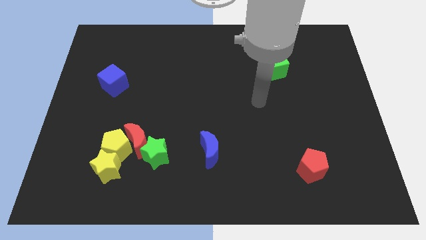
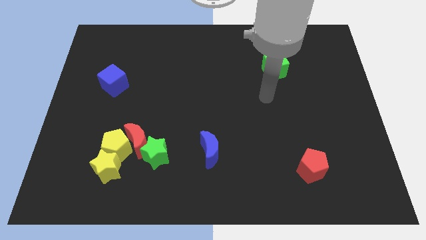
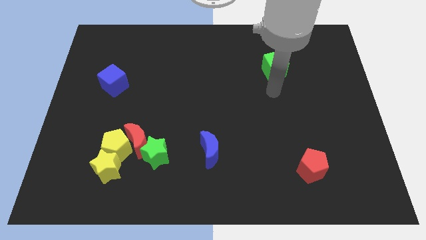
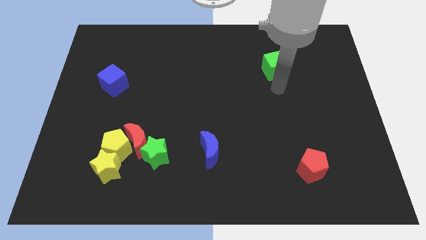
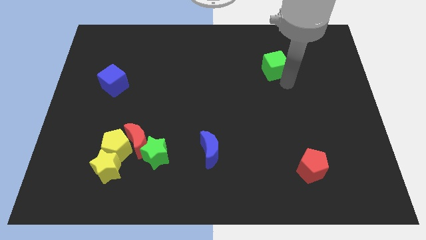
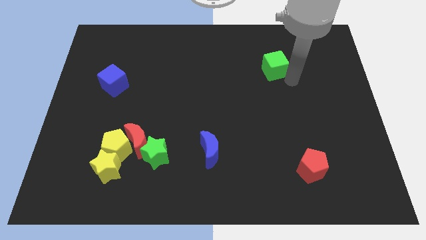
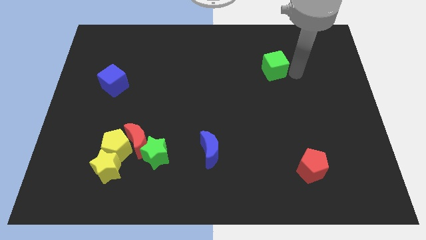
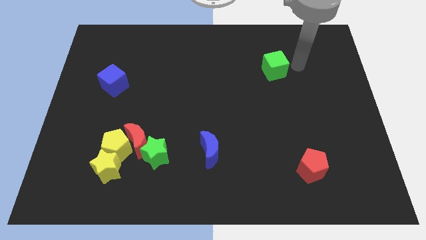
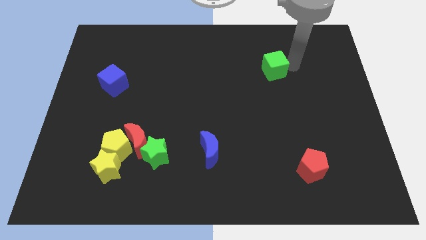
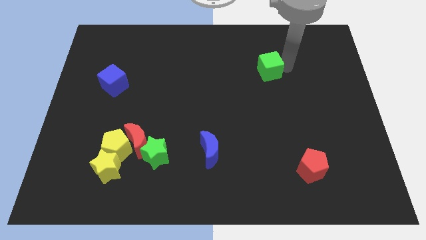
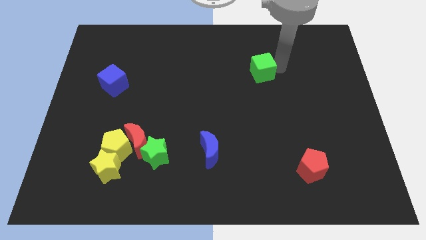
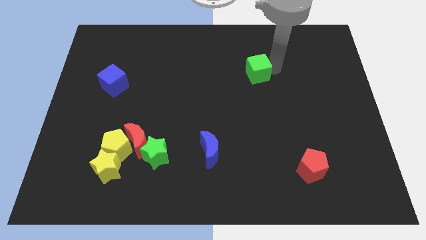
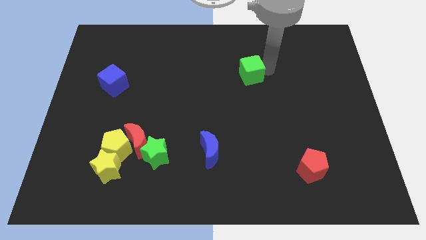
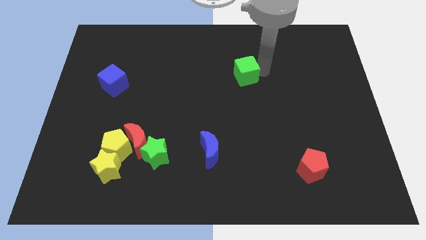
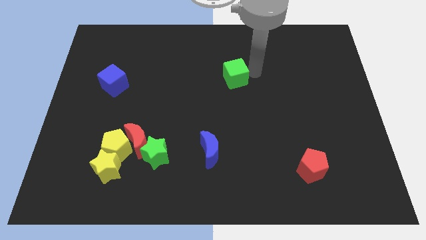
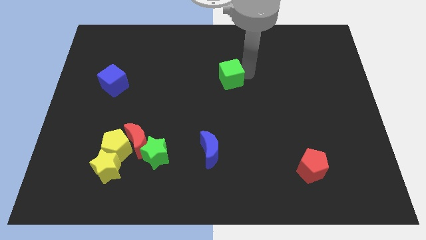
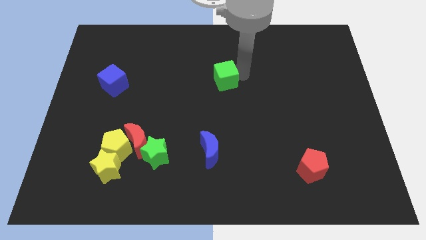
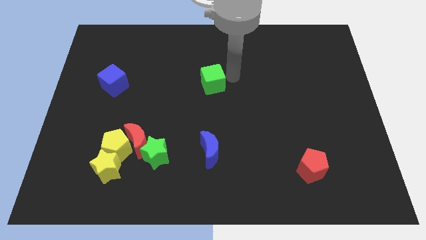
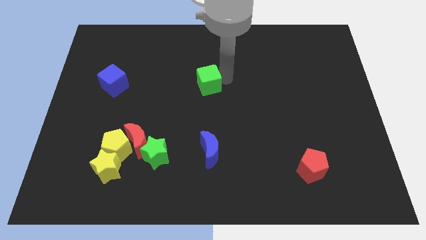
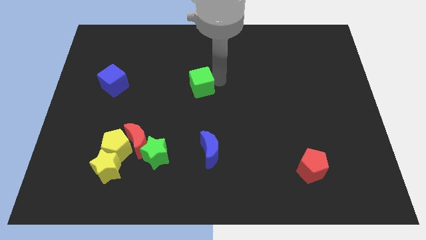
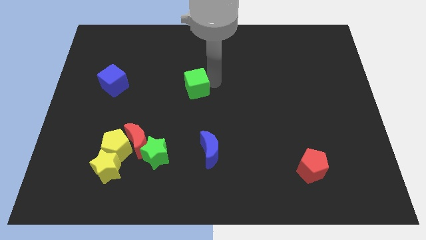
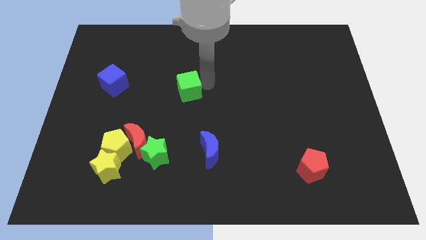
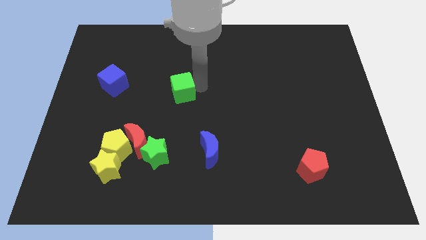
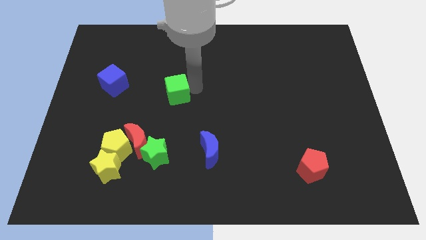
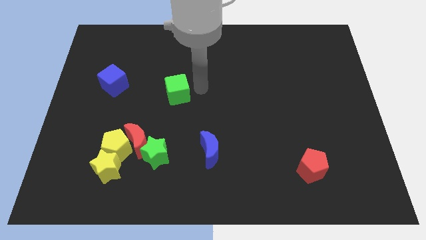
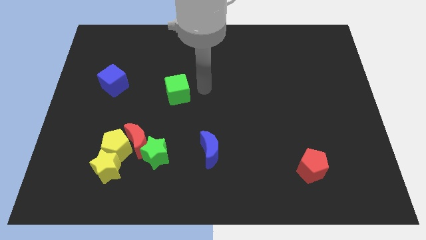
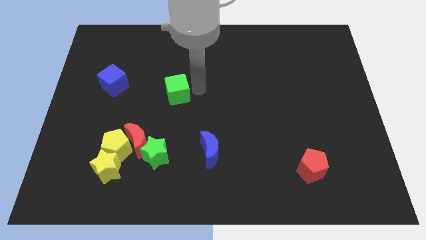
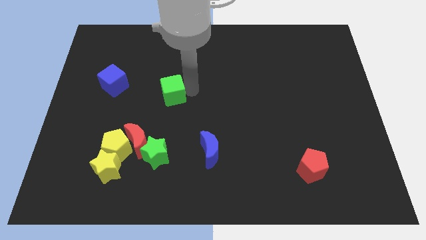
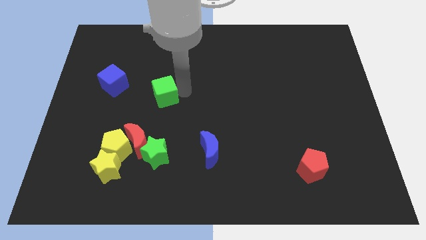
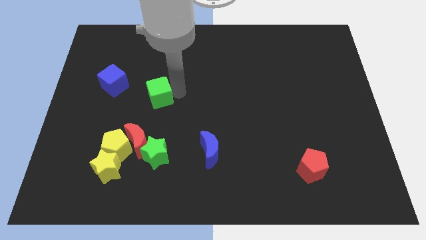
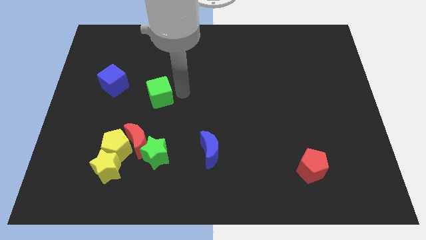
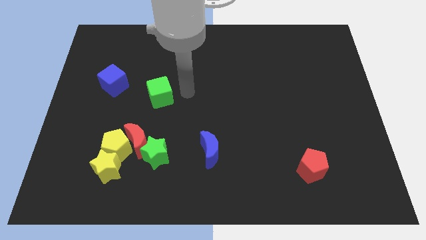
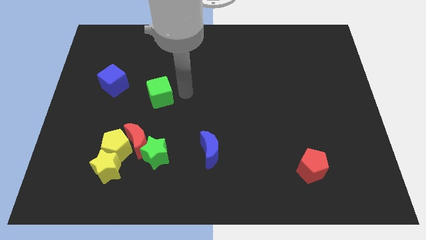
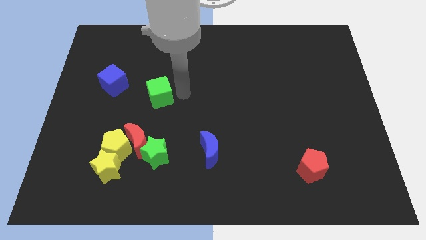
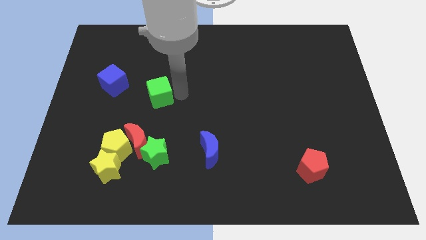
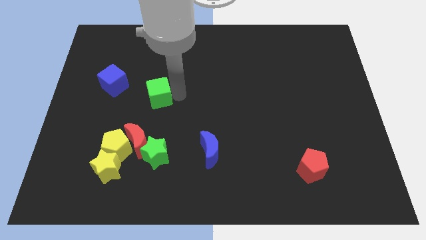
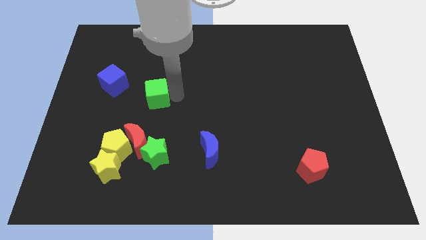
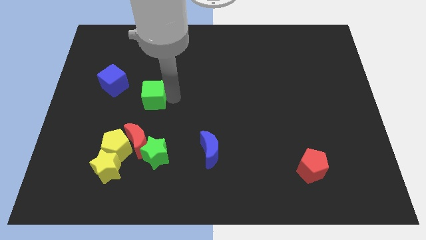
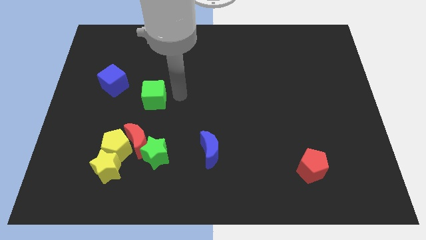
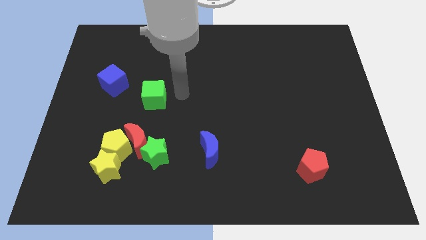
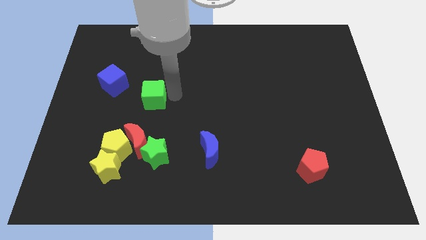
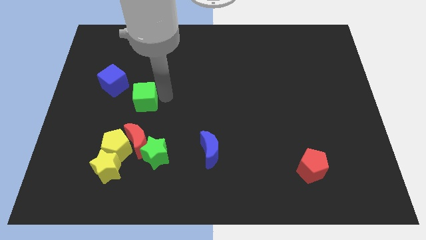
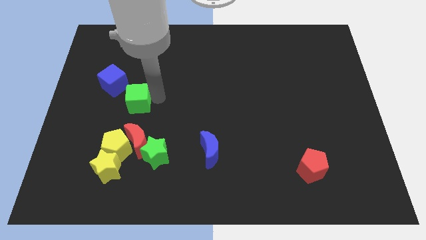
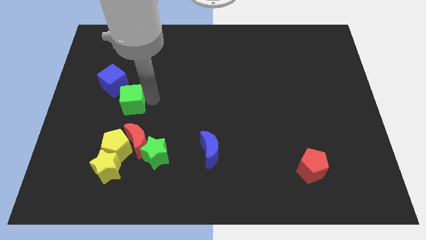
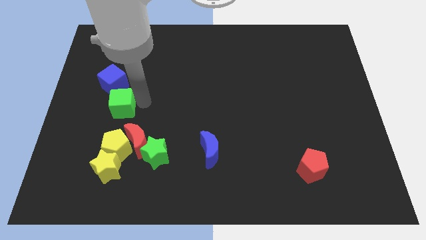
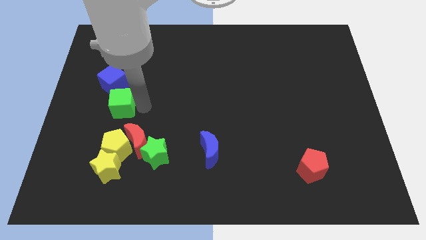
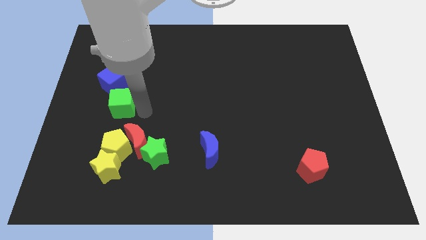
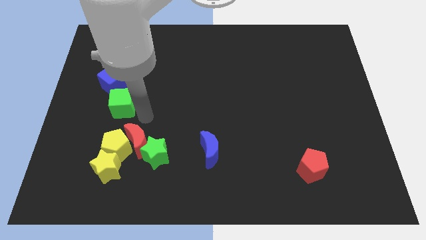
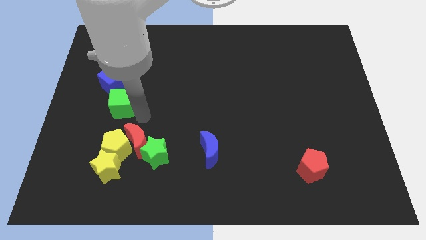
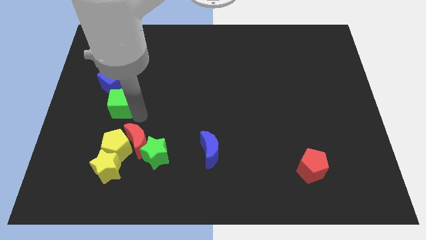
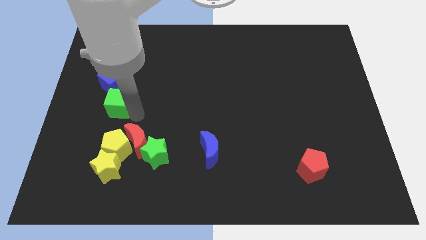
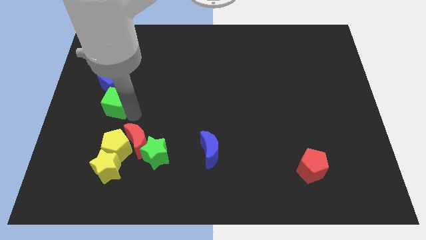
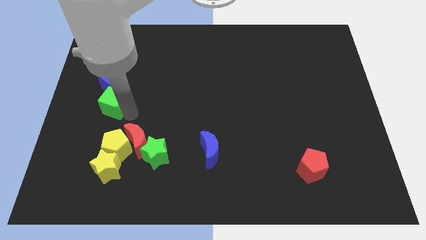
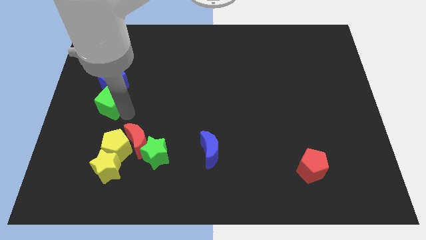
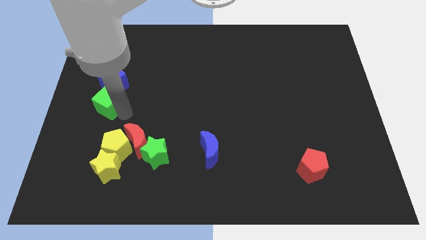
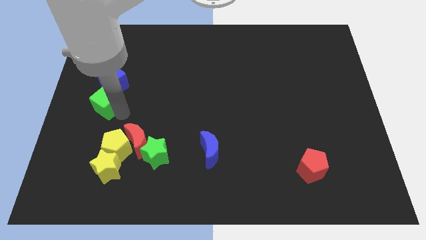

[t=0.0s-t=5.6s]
push the green cube to the center left
